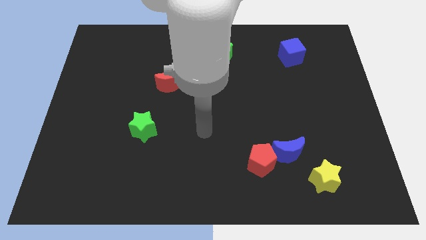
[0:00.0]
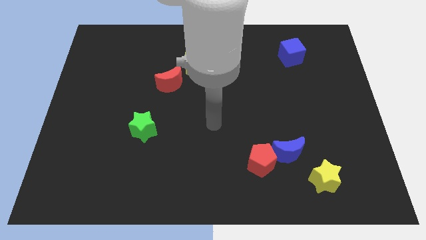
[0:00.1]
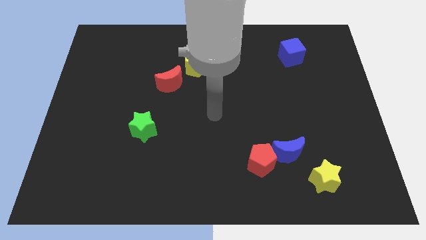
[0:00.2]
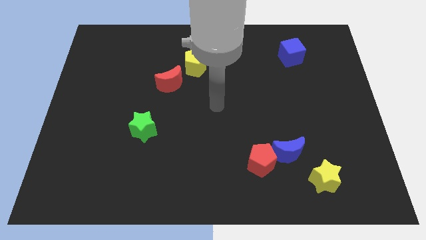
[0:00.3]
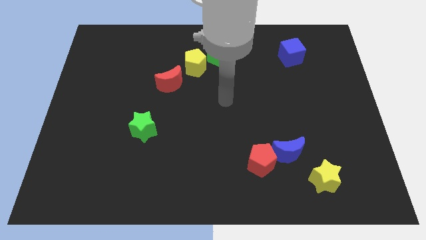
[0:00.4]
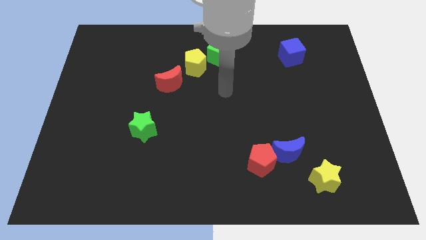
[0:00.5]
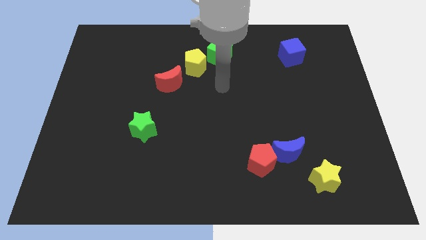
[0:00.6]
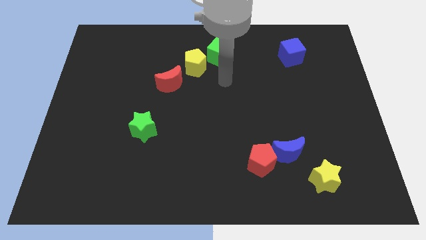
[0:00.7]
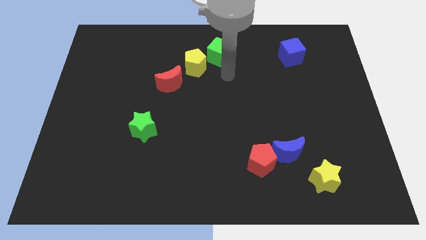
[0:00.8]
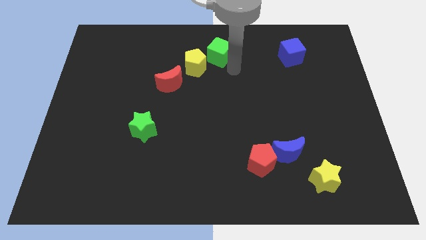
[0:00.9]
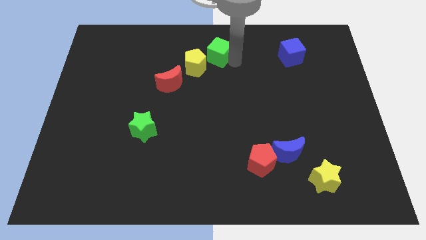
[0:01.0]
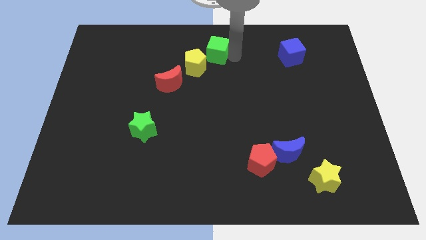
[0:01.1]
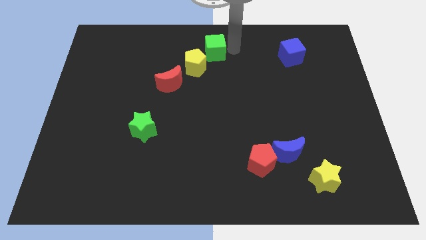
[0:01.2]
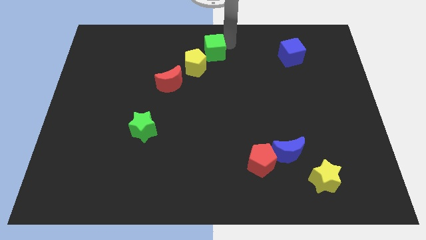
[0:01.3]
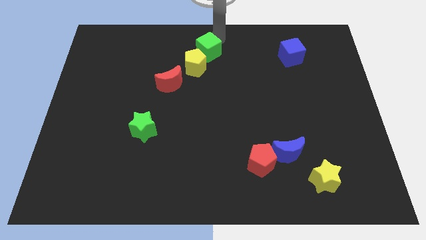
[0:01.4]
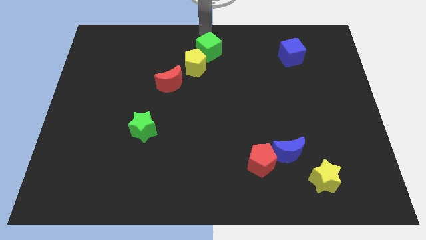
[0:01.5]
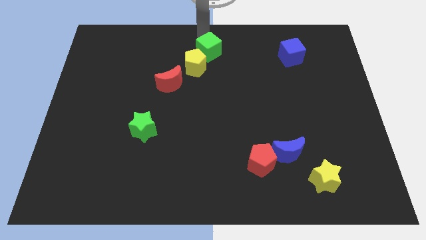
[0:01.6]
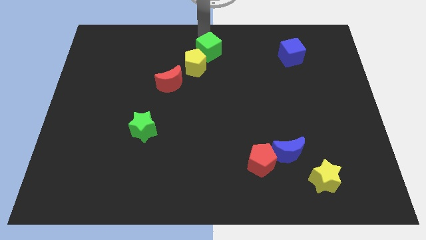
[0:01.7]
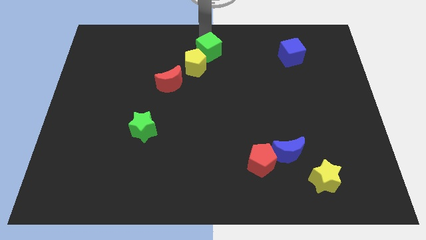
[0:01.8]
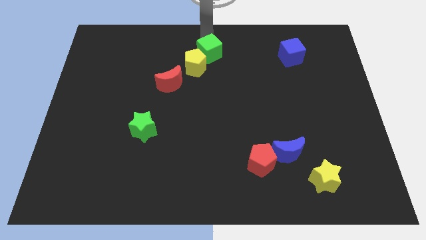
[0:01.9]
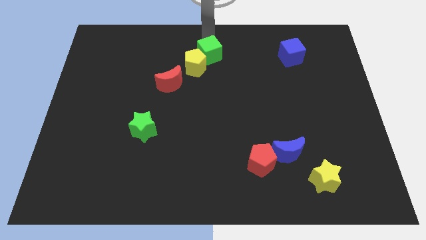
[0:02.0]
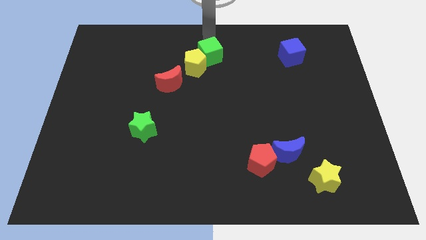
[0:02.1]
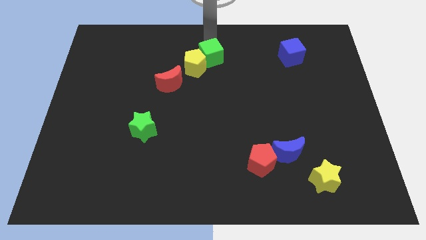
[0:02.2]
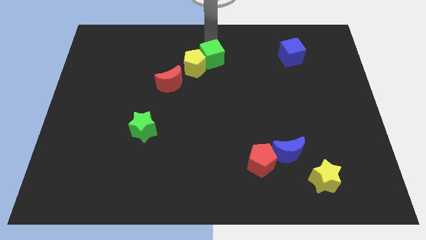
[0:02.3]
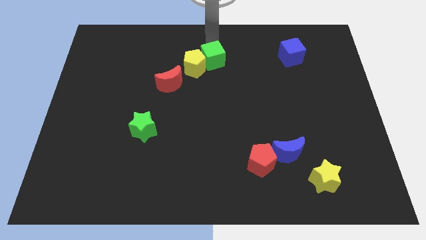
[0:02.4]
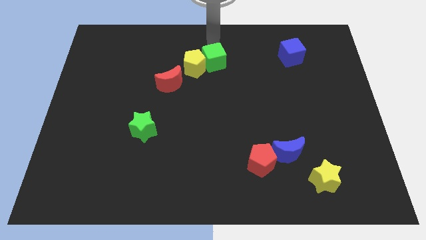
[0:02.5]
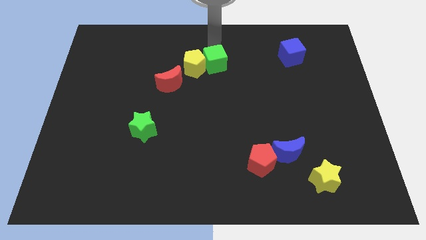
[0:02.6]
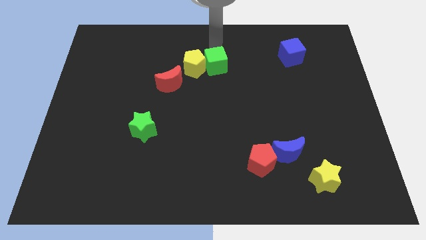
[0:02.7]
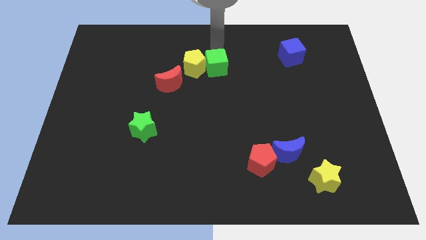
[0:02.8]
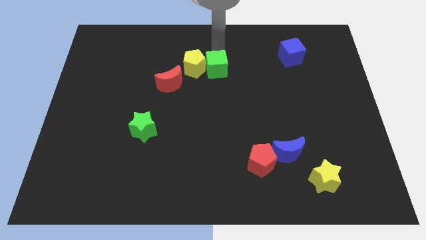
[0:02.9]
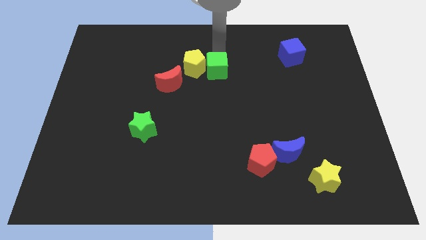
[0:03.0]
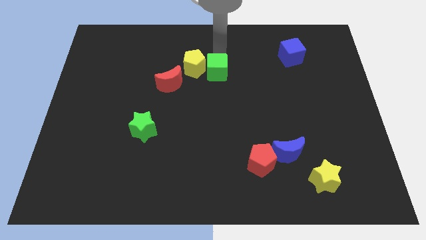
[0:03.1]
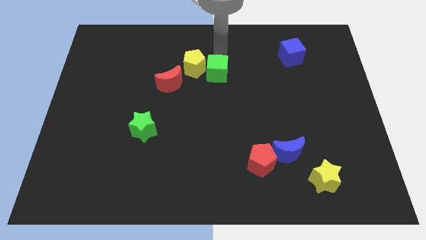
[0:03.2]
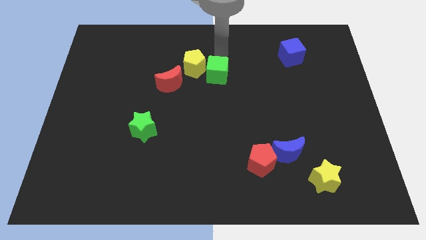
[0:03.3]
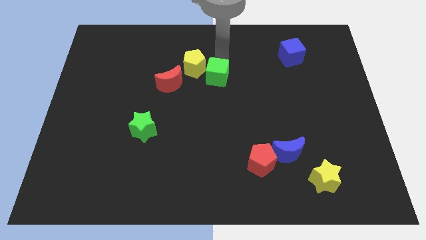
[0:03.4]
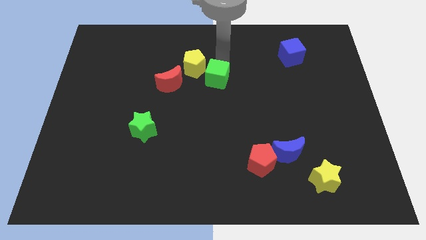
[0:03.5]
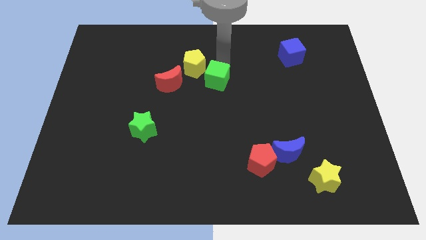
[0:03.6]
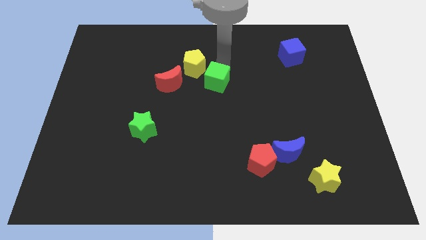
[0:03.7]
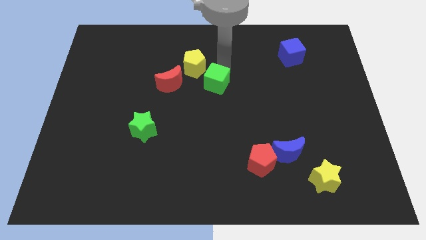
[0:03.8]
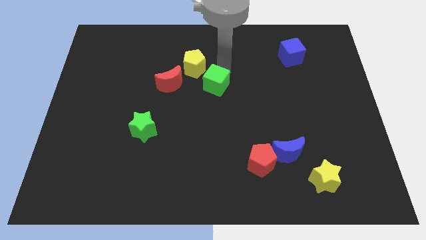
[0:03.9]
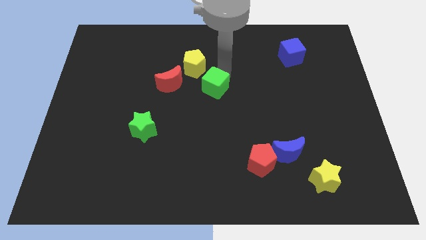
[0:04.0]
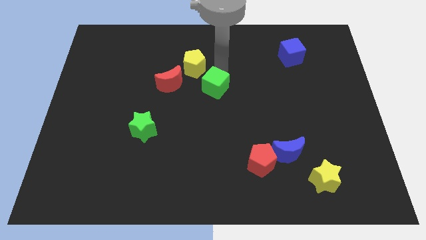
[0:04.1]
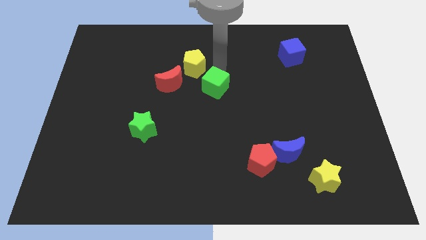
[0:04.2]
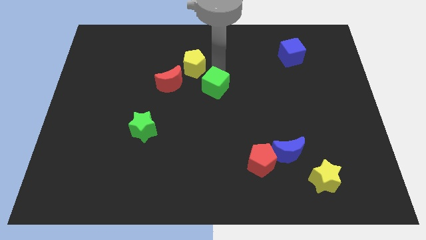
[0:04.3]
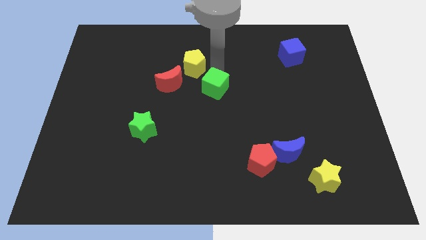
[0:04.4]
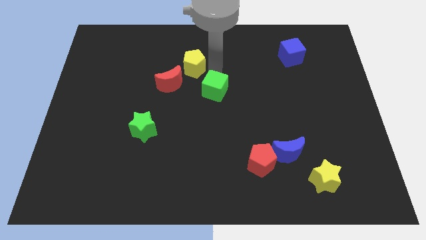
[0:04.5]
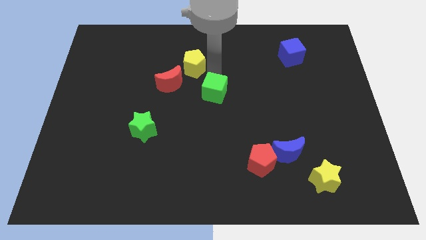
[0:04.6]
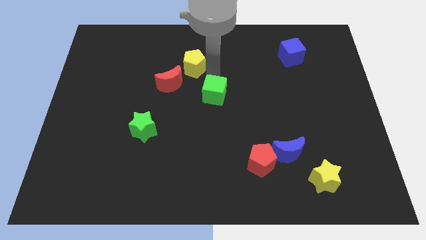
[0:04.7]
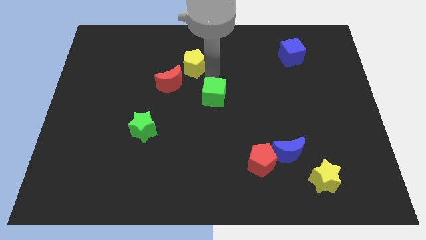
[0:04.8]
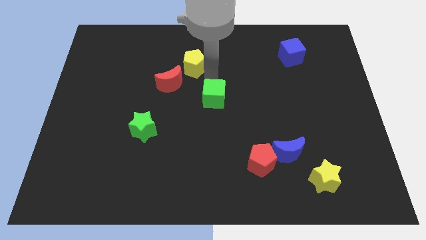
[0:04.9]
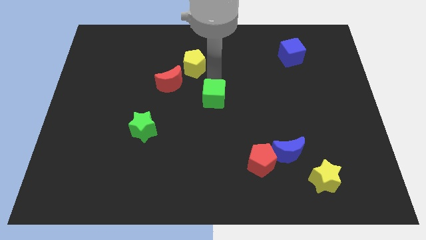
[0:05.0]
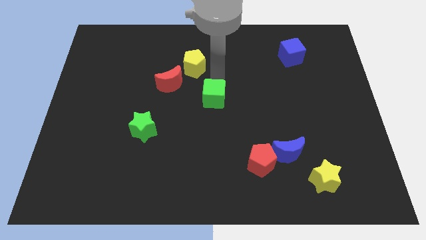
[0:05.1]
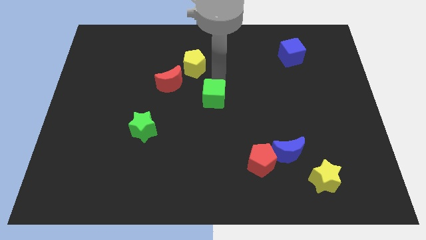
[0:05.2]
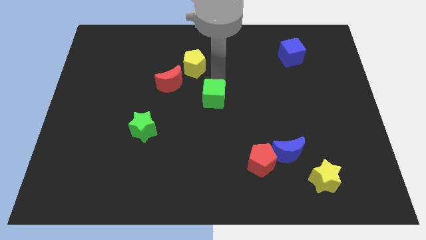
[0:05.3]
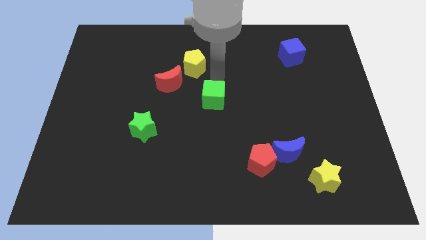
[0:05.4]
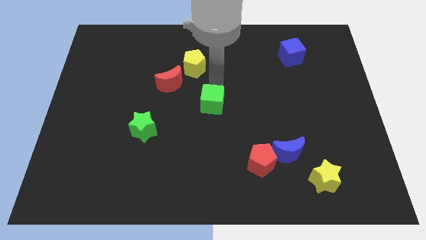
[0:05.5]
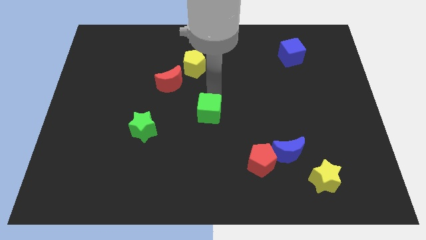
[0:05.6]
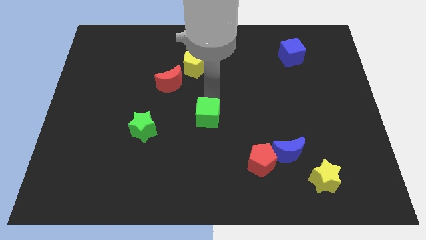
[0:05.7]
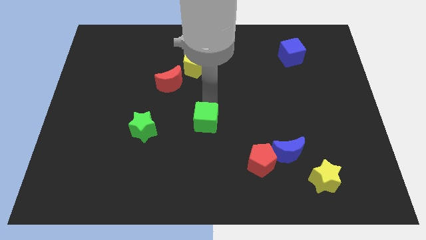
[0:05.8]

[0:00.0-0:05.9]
move the green cube down

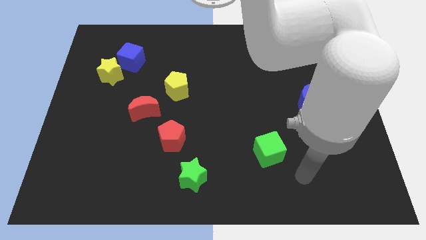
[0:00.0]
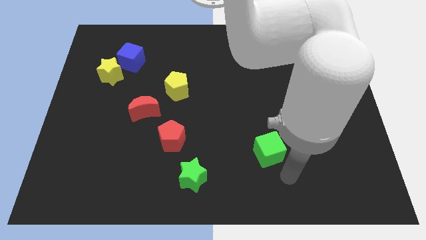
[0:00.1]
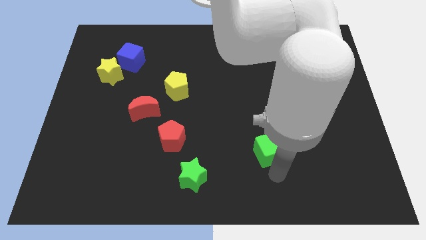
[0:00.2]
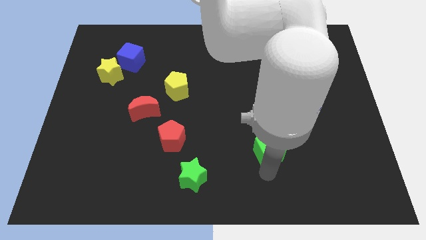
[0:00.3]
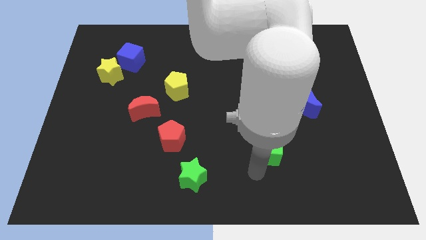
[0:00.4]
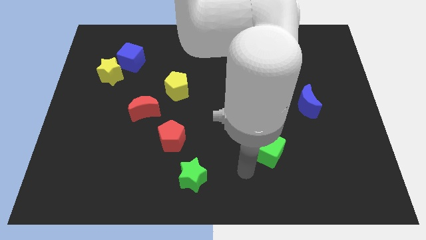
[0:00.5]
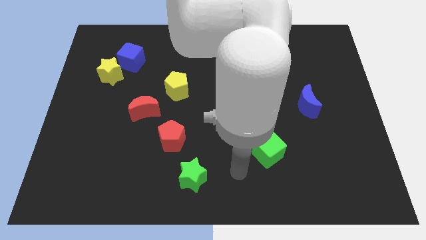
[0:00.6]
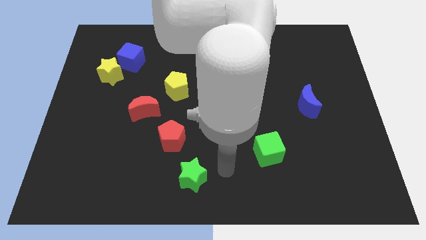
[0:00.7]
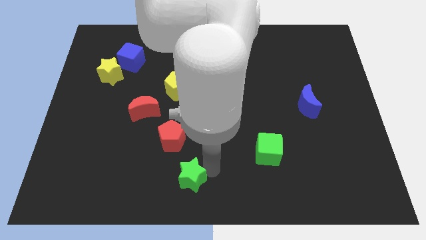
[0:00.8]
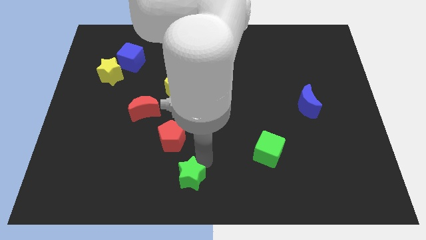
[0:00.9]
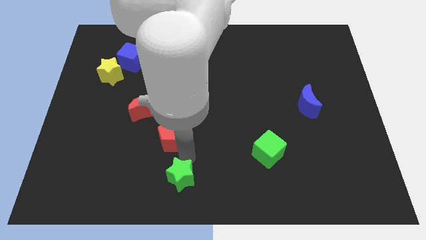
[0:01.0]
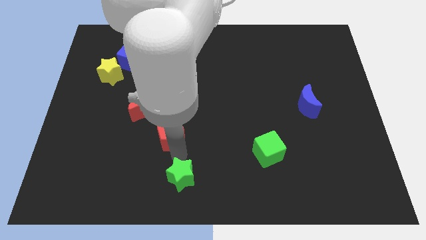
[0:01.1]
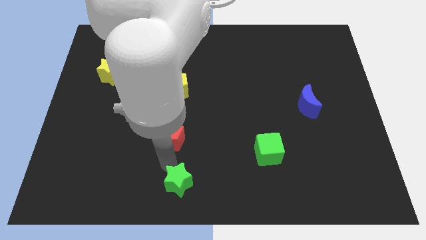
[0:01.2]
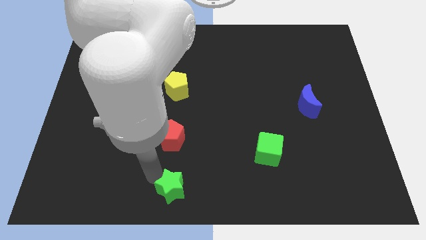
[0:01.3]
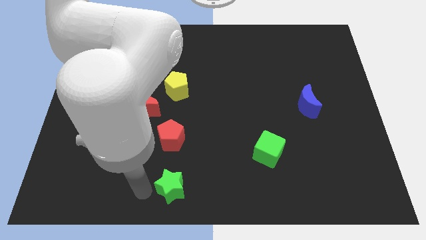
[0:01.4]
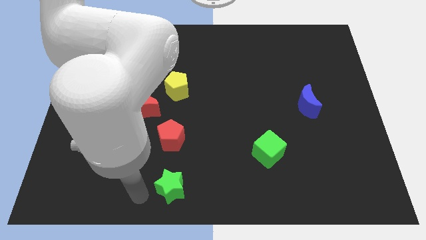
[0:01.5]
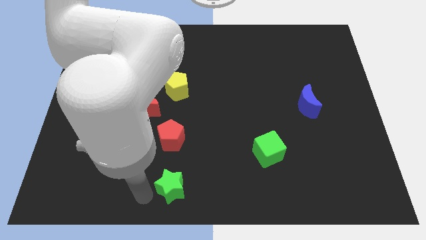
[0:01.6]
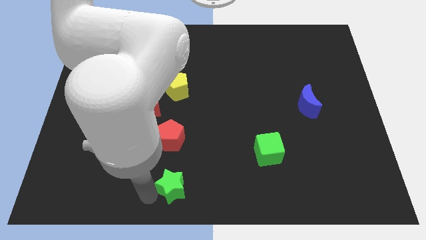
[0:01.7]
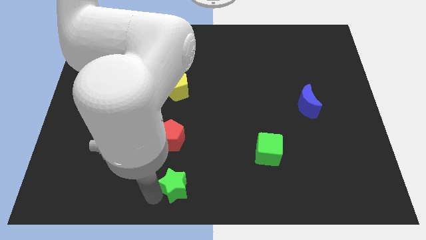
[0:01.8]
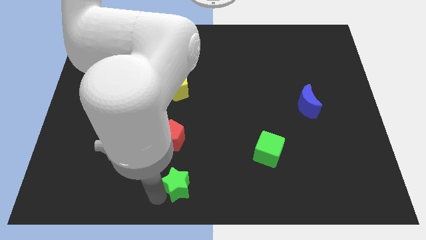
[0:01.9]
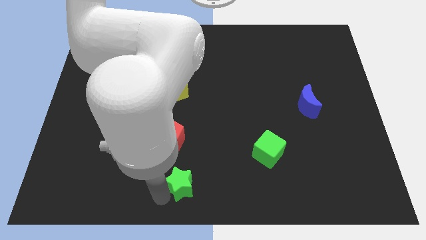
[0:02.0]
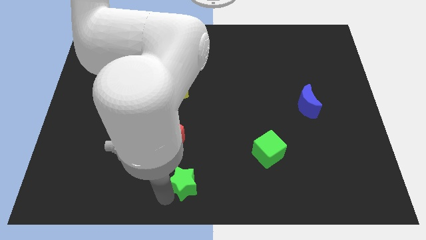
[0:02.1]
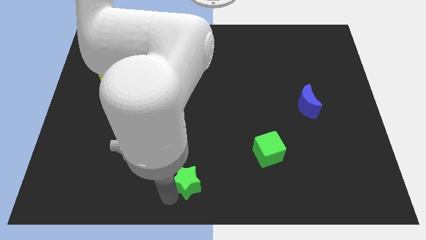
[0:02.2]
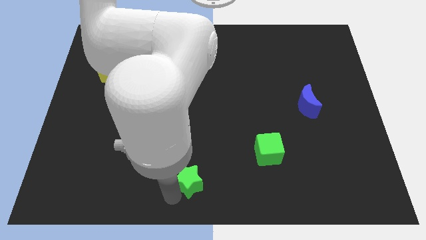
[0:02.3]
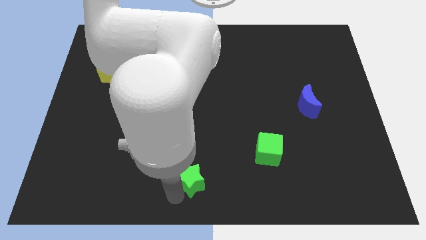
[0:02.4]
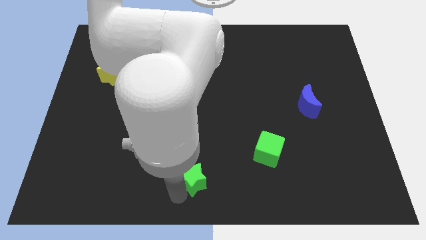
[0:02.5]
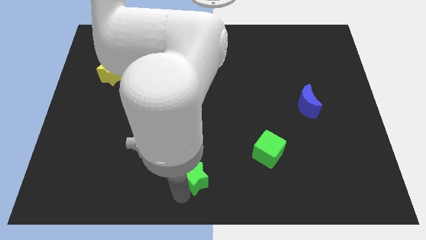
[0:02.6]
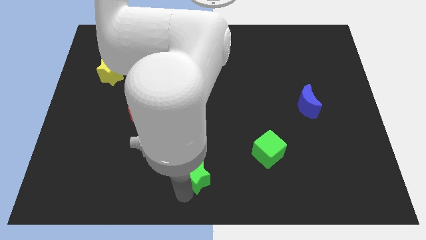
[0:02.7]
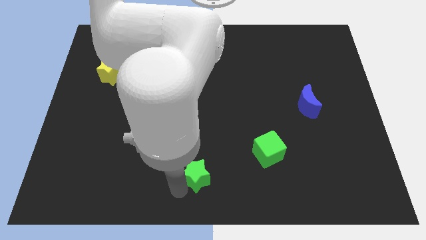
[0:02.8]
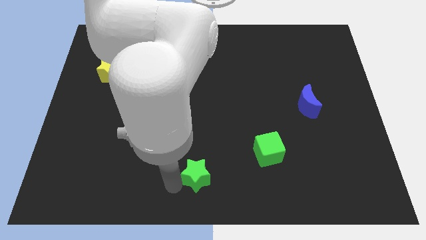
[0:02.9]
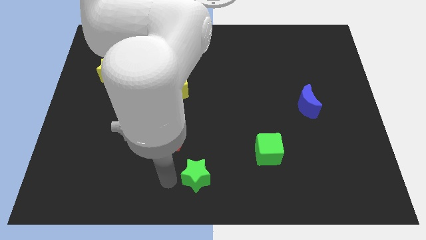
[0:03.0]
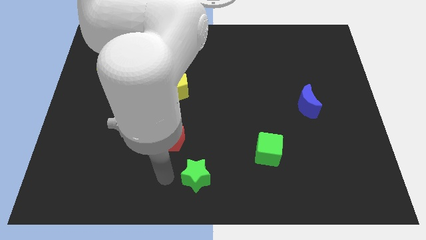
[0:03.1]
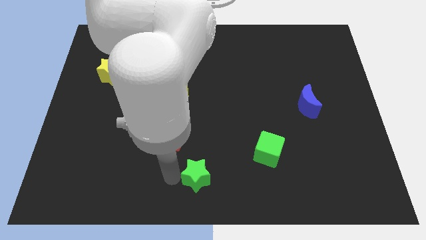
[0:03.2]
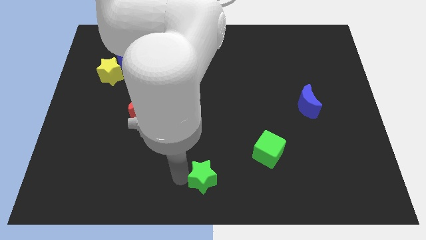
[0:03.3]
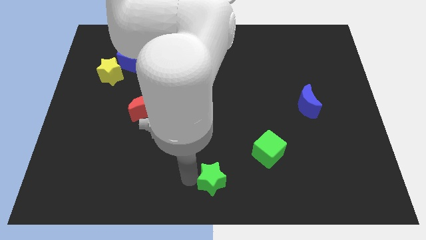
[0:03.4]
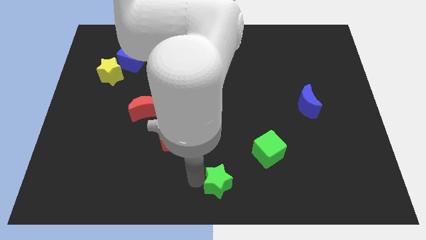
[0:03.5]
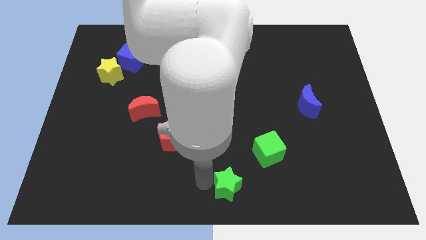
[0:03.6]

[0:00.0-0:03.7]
move the green star to the right a little
